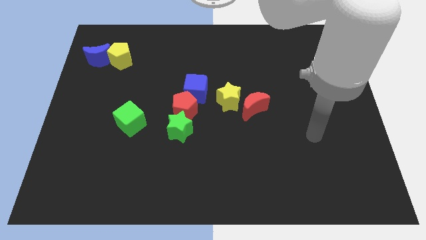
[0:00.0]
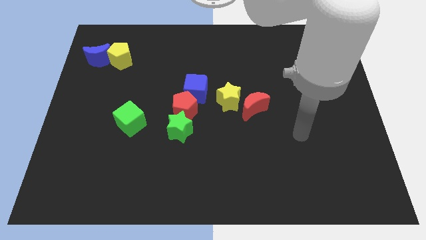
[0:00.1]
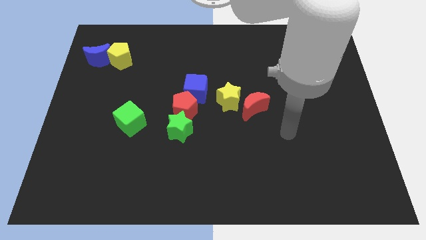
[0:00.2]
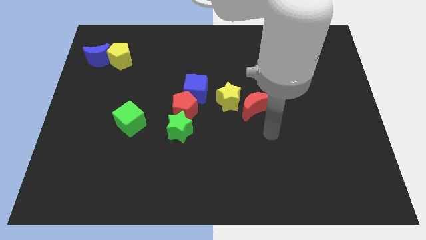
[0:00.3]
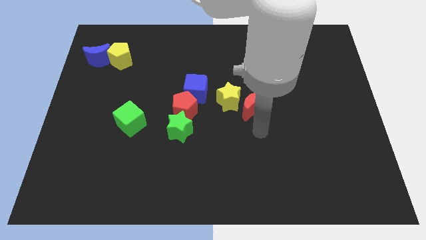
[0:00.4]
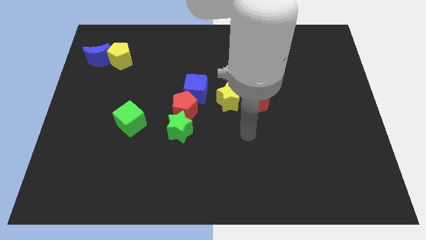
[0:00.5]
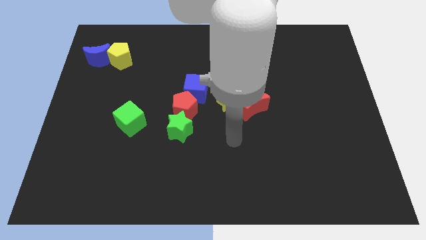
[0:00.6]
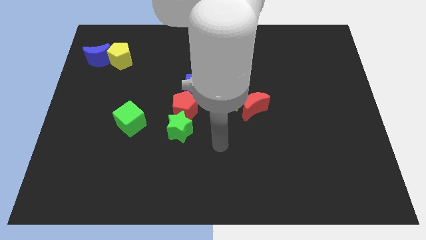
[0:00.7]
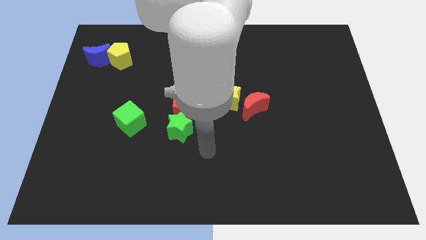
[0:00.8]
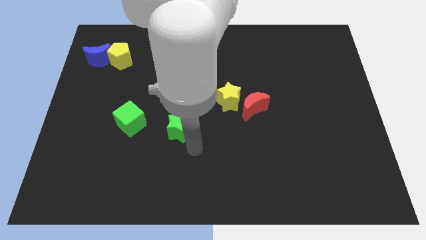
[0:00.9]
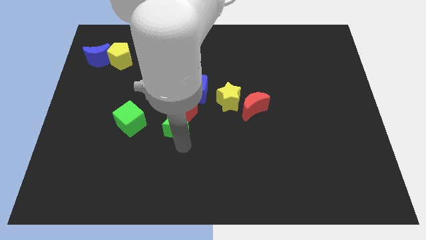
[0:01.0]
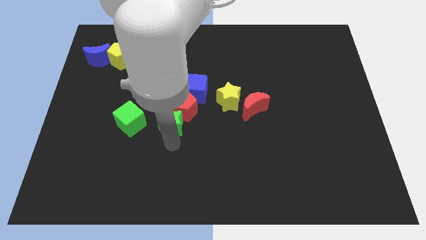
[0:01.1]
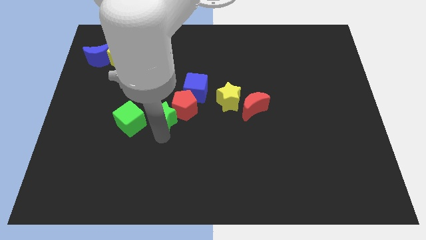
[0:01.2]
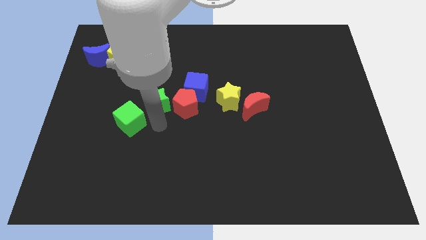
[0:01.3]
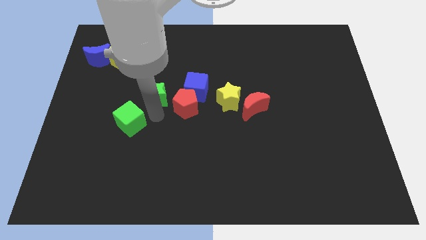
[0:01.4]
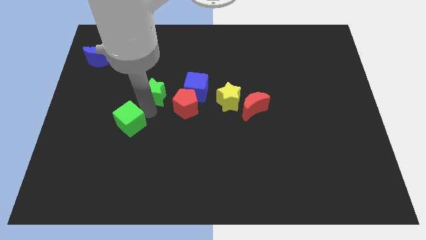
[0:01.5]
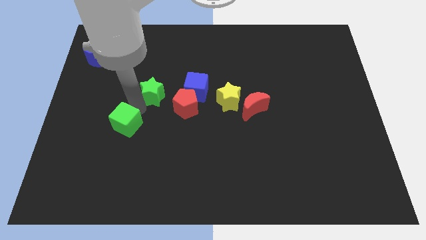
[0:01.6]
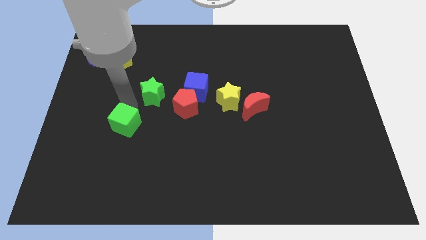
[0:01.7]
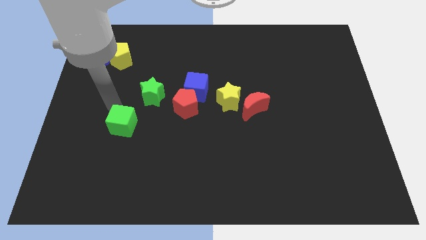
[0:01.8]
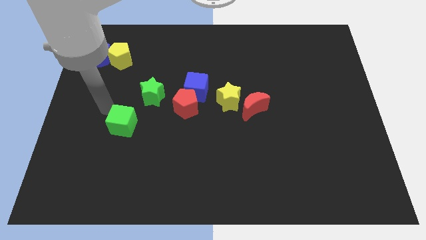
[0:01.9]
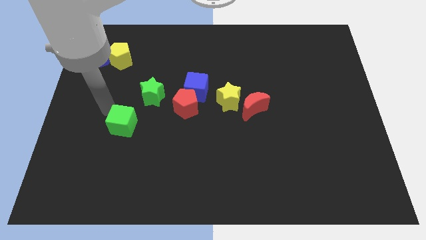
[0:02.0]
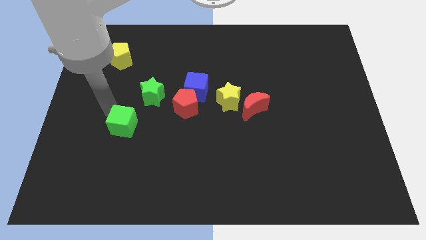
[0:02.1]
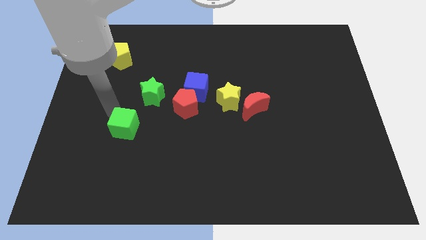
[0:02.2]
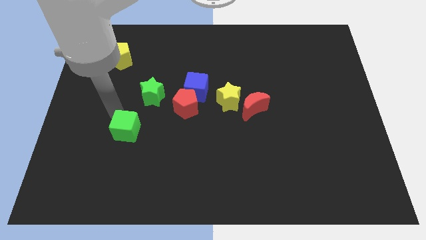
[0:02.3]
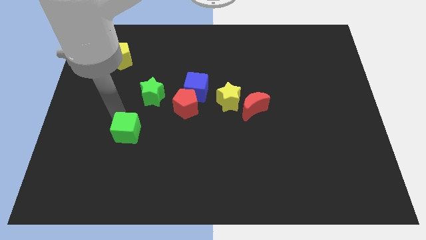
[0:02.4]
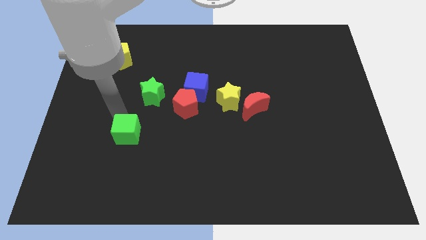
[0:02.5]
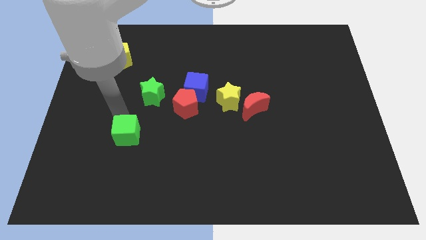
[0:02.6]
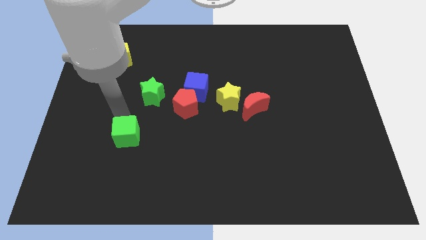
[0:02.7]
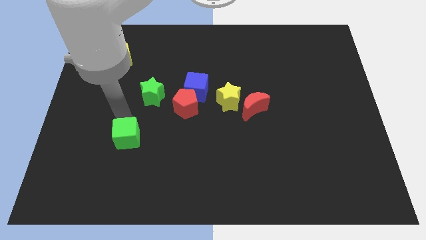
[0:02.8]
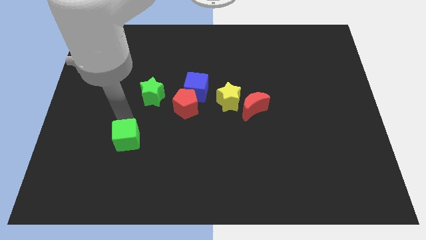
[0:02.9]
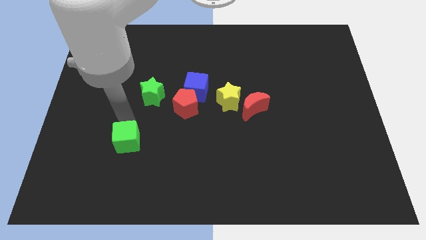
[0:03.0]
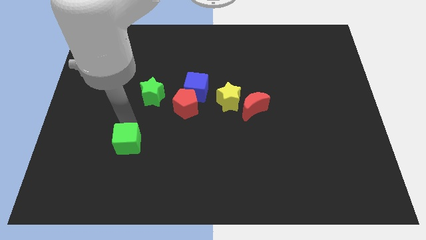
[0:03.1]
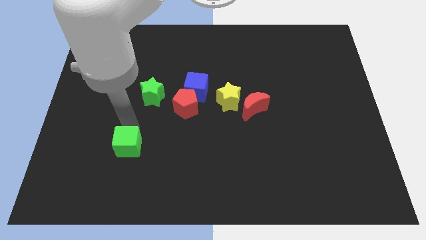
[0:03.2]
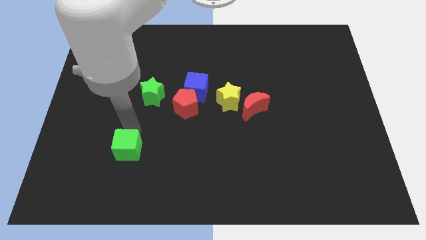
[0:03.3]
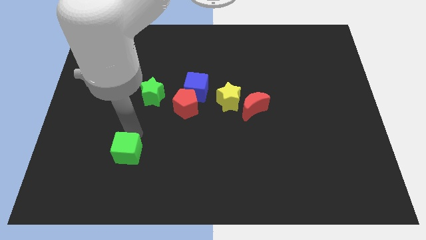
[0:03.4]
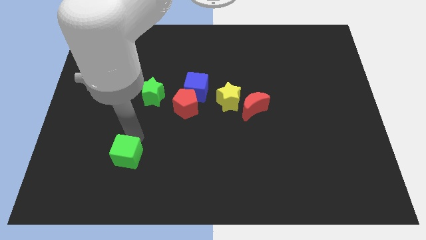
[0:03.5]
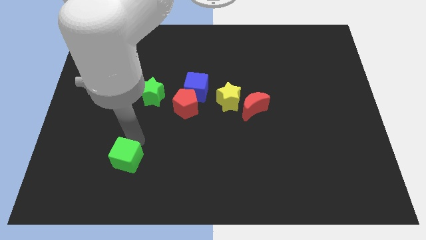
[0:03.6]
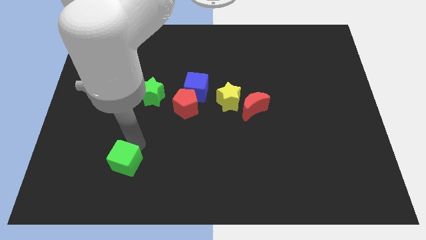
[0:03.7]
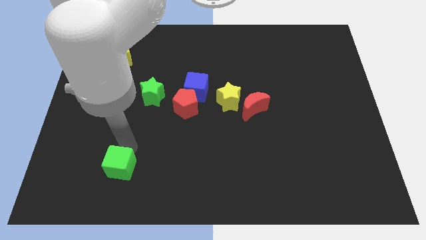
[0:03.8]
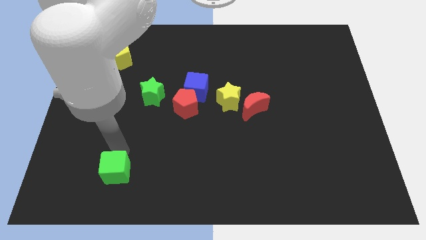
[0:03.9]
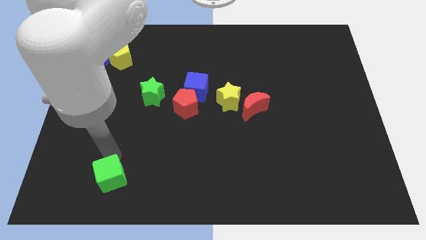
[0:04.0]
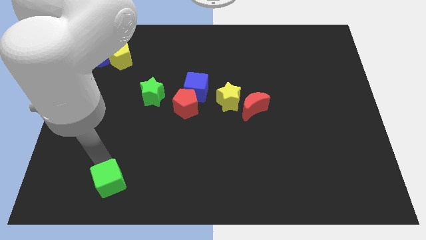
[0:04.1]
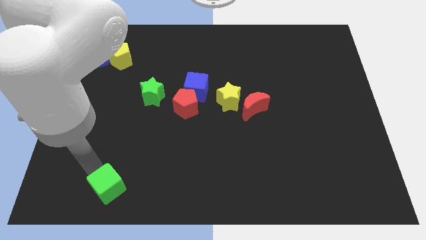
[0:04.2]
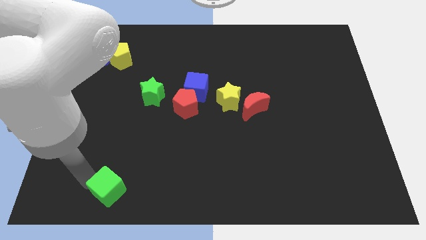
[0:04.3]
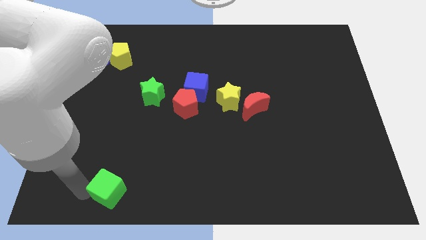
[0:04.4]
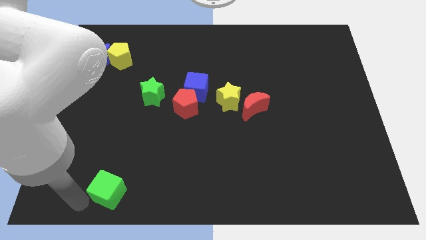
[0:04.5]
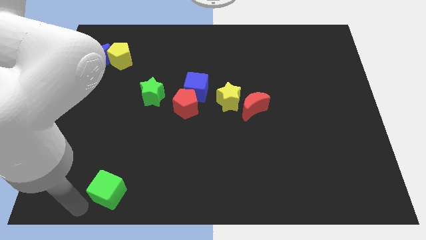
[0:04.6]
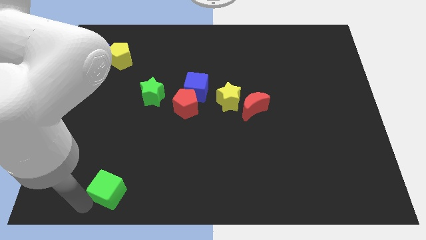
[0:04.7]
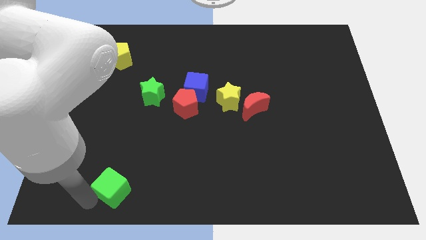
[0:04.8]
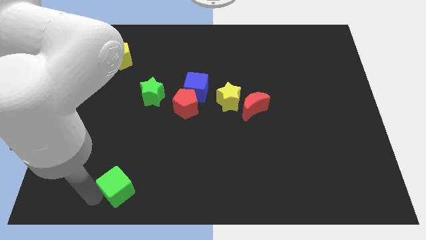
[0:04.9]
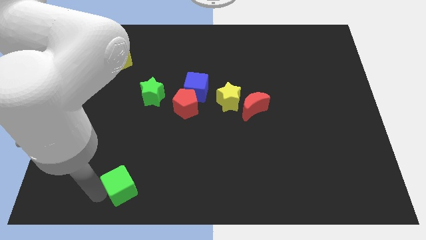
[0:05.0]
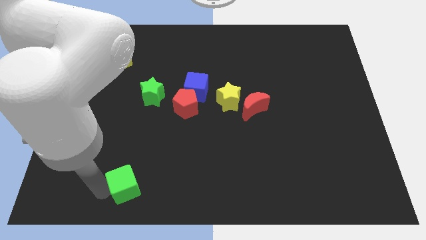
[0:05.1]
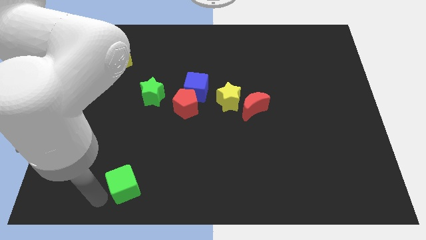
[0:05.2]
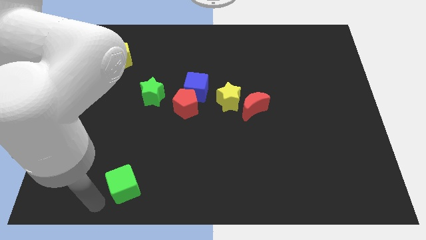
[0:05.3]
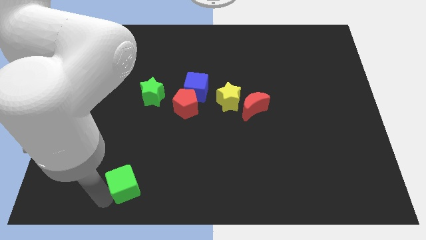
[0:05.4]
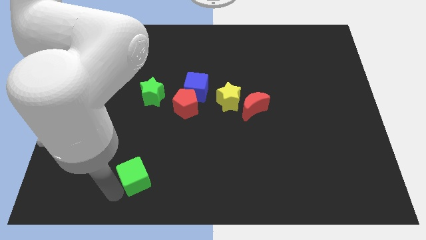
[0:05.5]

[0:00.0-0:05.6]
slightly slide the green cube diagonally downwards and right

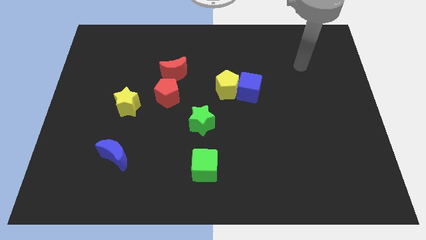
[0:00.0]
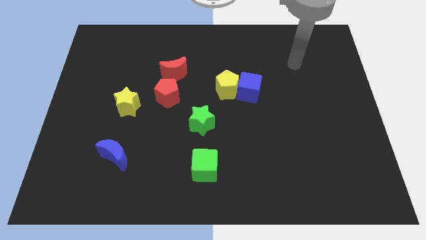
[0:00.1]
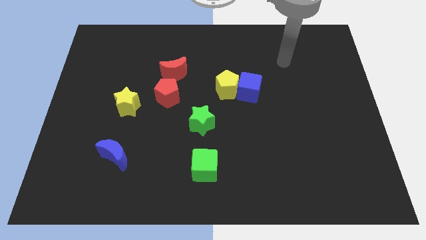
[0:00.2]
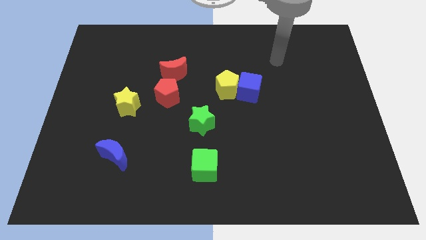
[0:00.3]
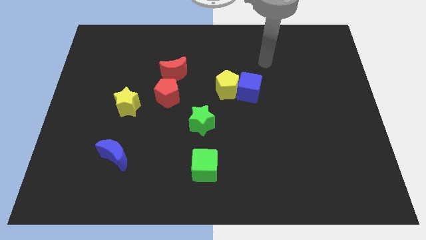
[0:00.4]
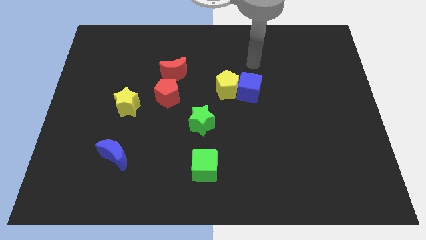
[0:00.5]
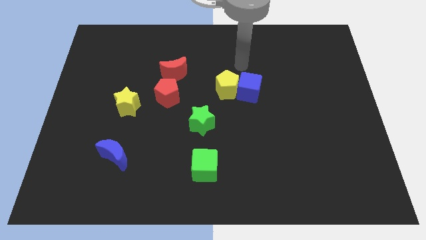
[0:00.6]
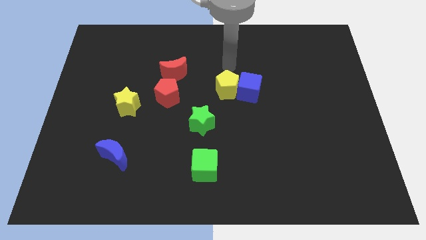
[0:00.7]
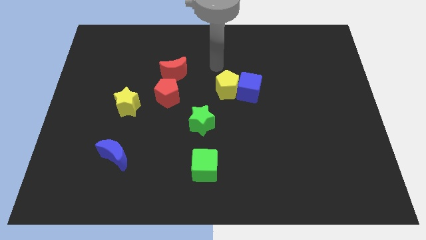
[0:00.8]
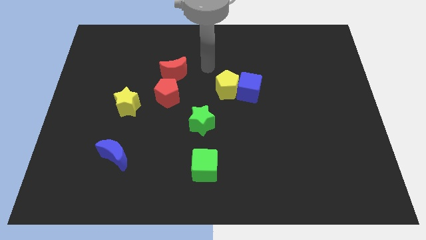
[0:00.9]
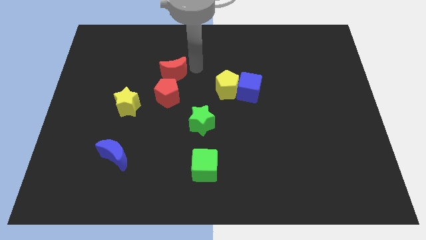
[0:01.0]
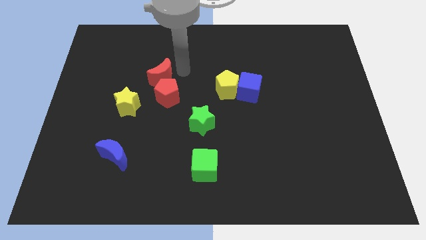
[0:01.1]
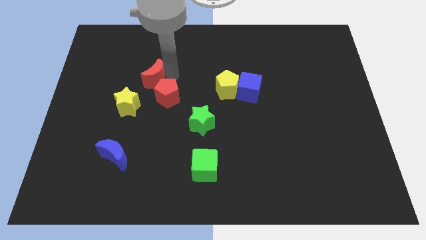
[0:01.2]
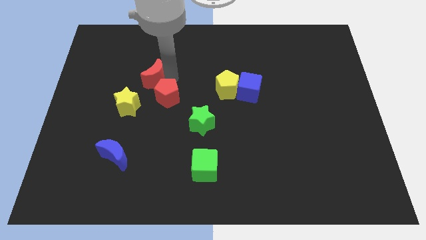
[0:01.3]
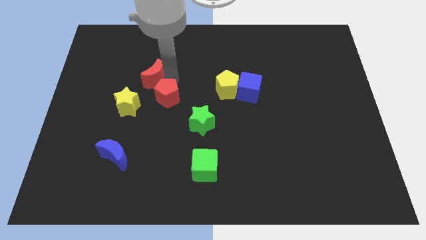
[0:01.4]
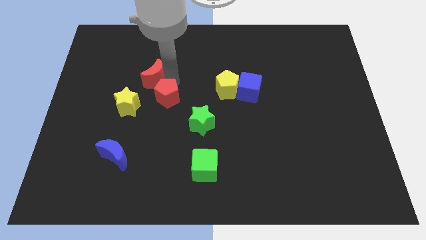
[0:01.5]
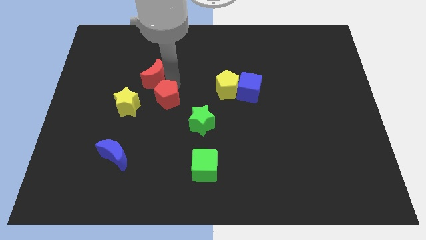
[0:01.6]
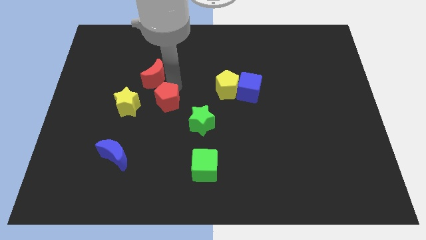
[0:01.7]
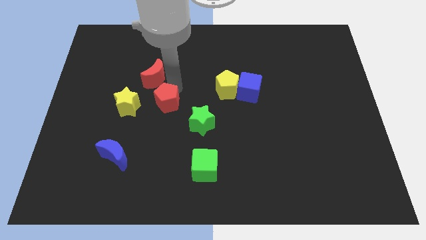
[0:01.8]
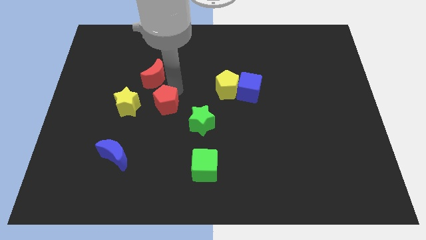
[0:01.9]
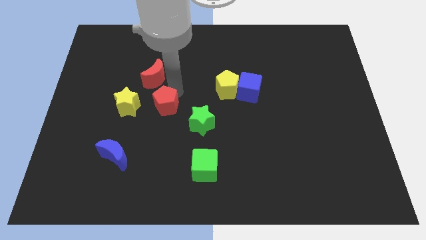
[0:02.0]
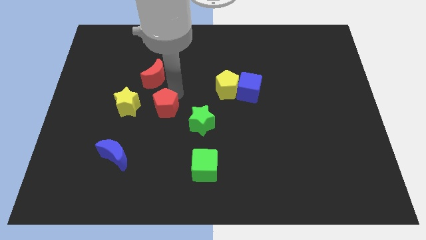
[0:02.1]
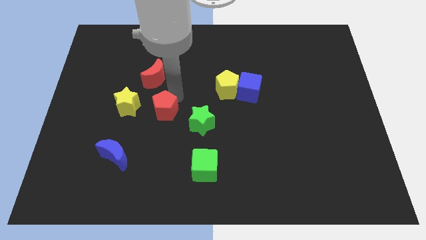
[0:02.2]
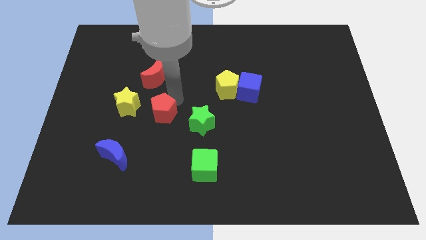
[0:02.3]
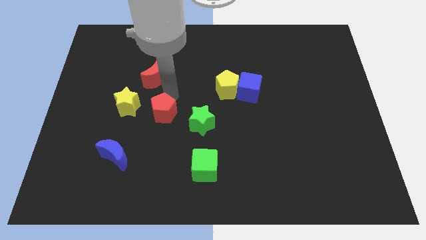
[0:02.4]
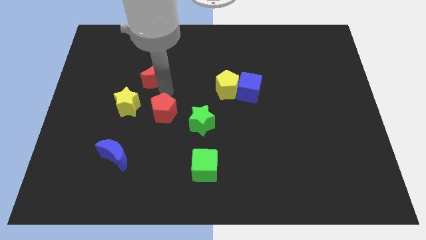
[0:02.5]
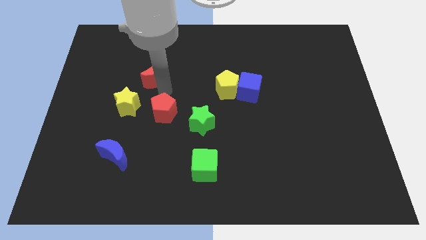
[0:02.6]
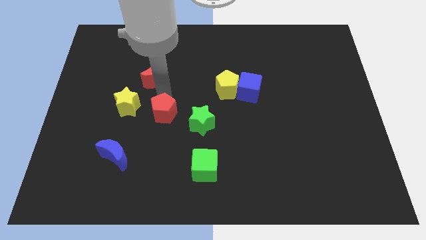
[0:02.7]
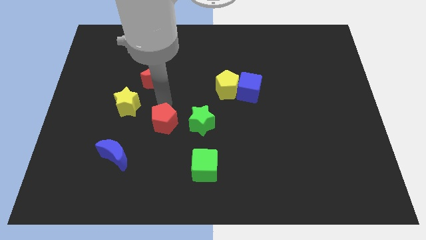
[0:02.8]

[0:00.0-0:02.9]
move the red pentagon a little bit downwards
